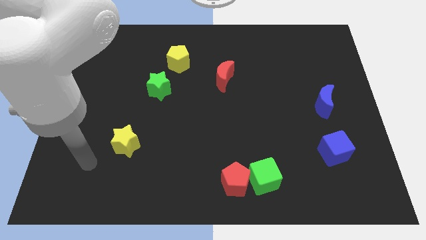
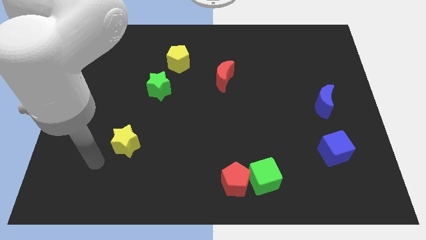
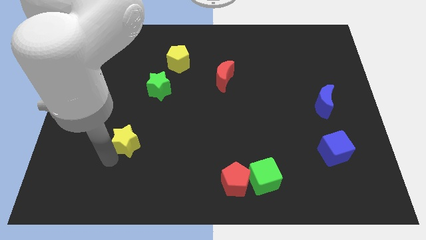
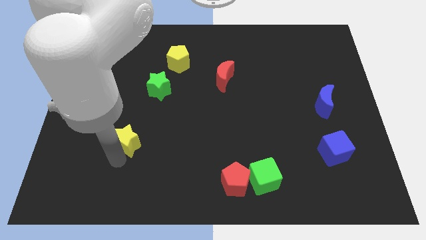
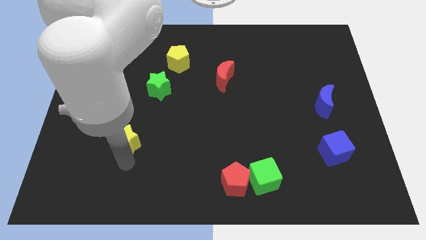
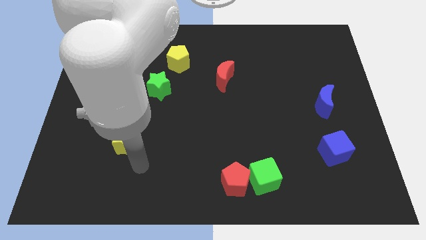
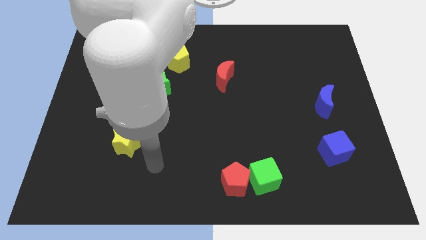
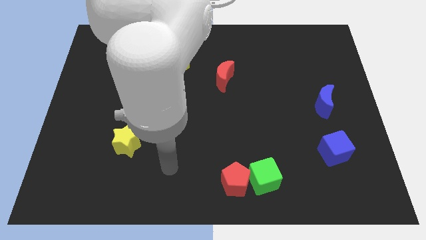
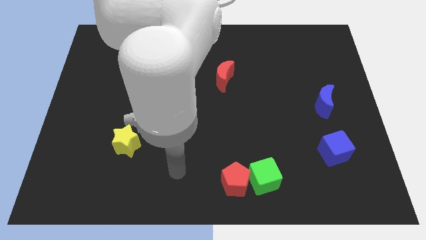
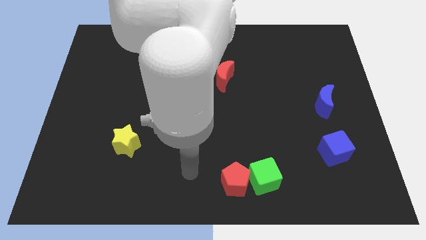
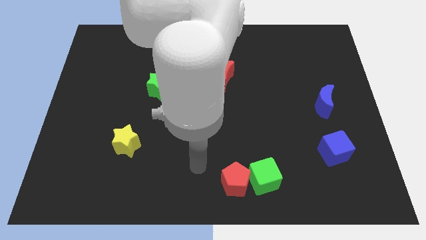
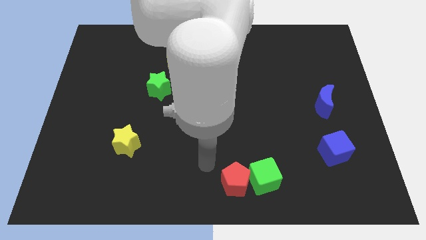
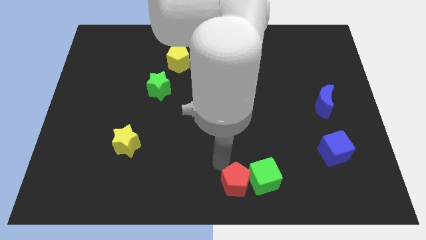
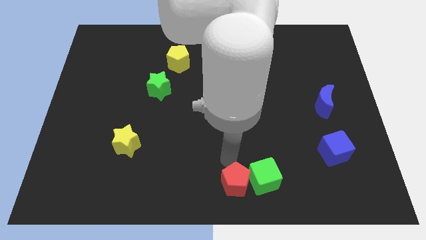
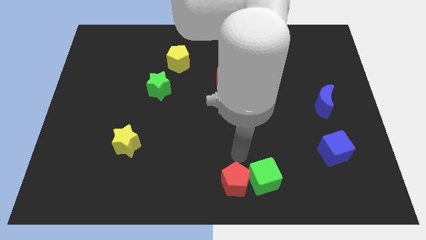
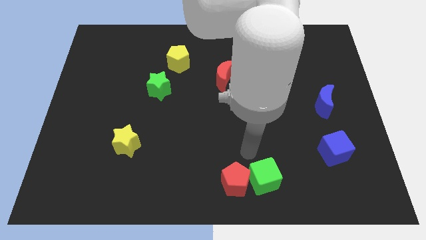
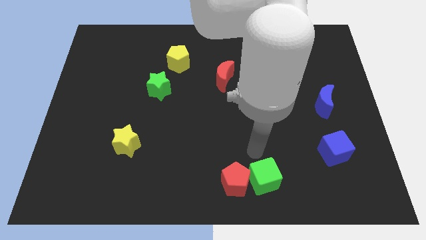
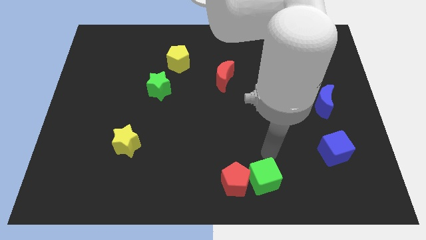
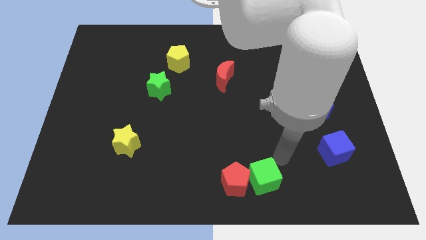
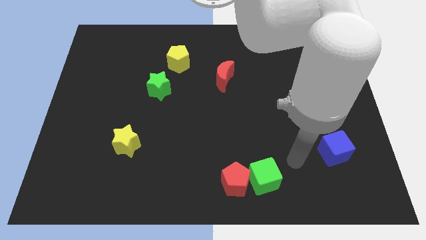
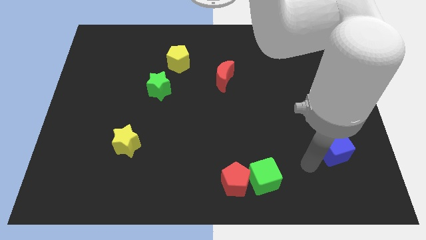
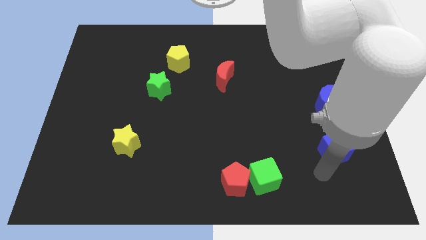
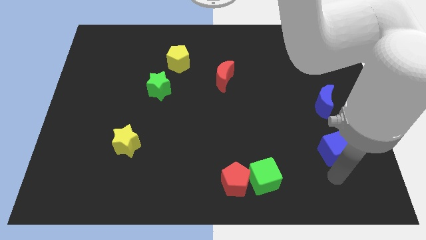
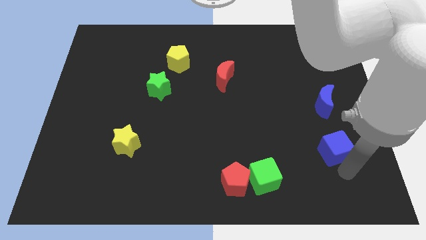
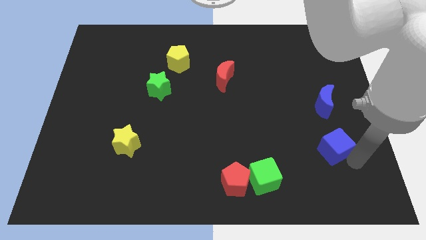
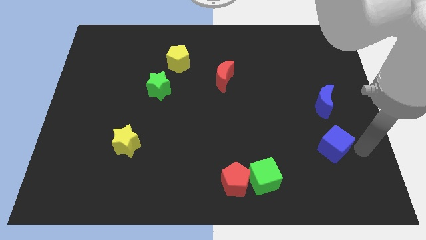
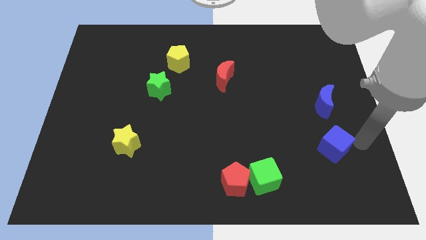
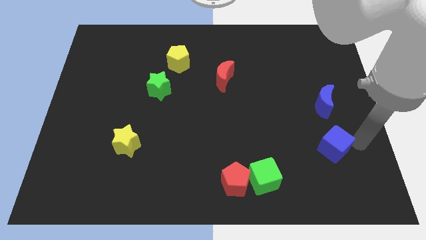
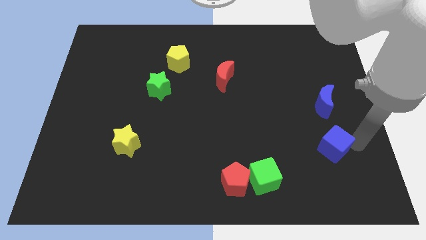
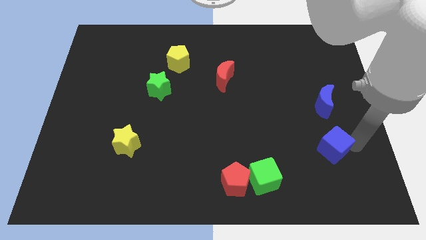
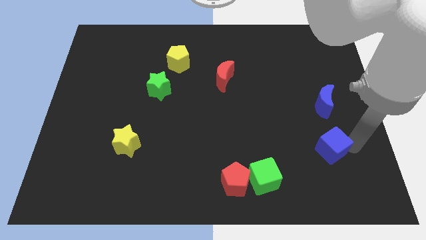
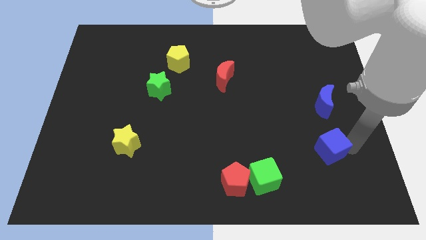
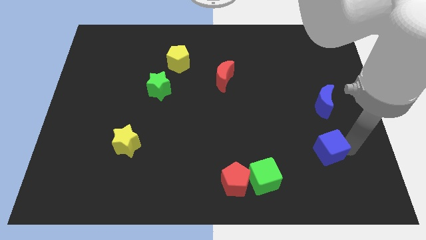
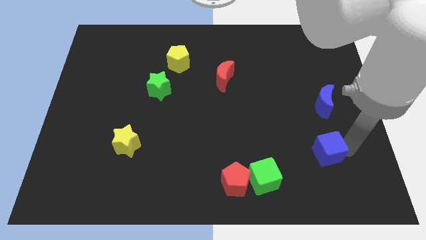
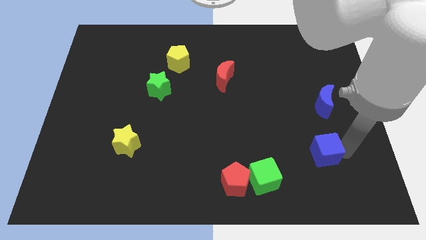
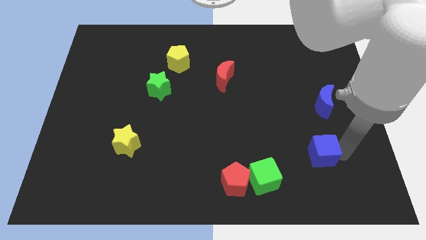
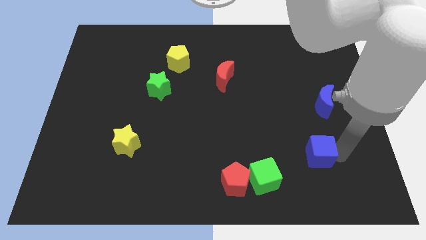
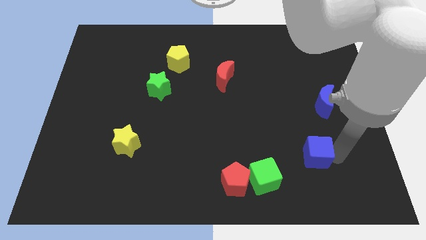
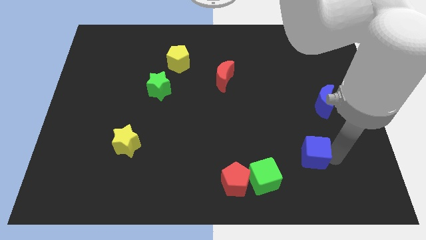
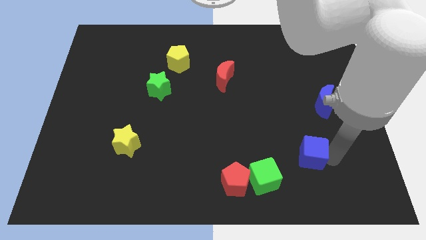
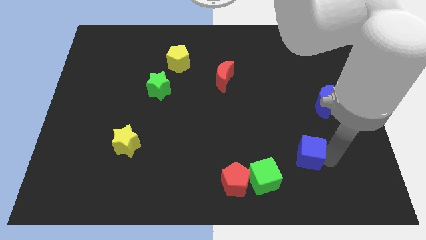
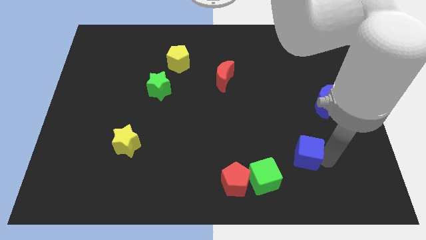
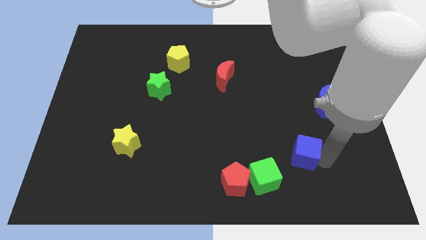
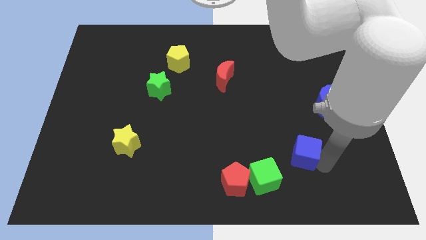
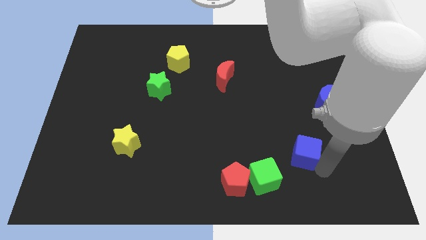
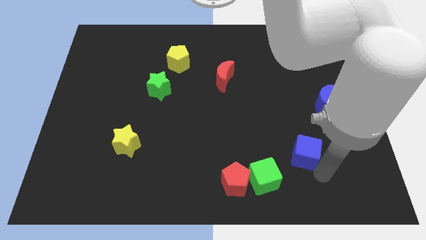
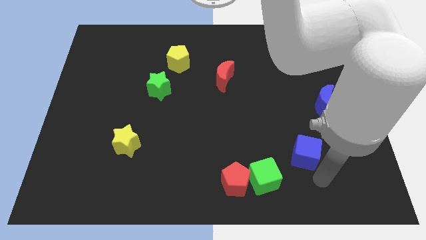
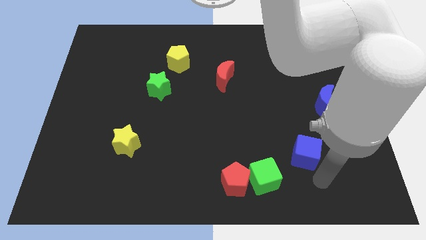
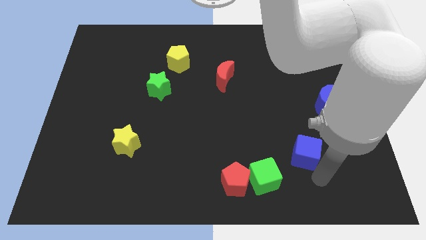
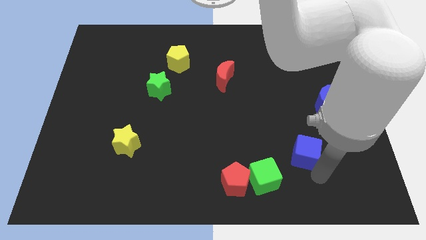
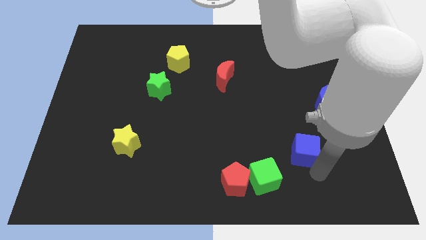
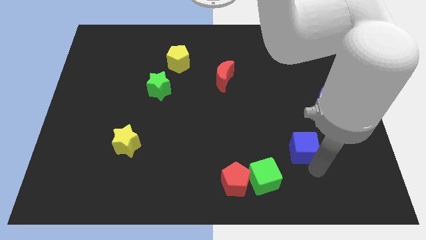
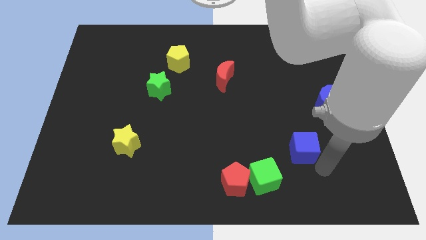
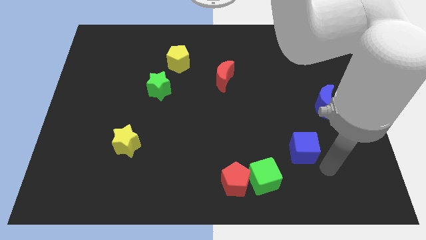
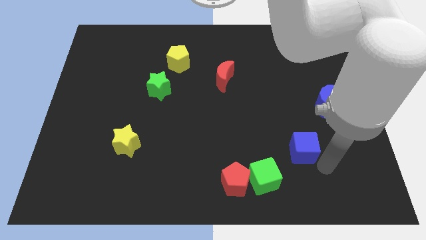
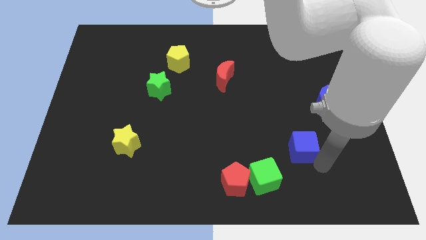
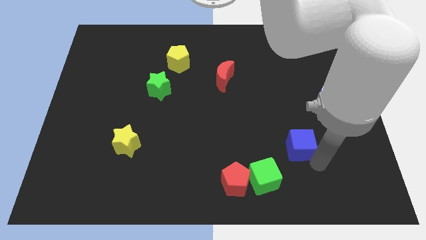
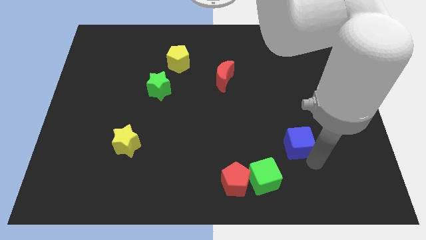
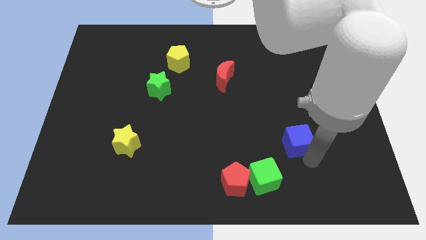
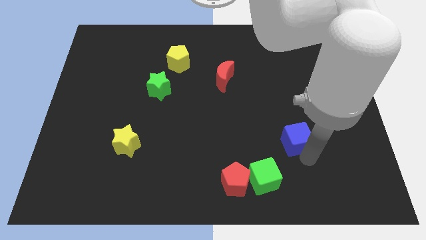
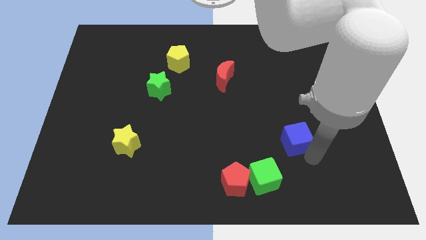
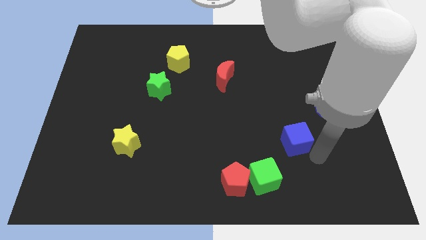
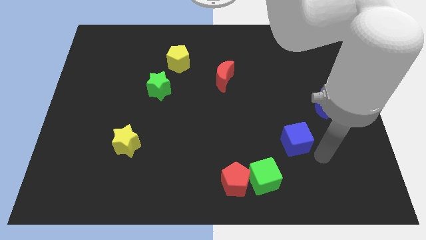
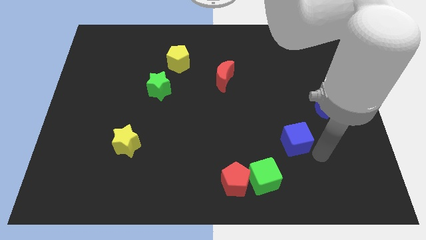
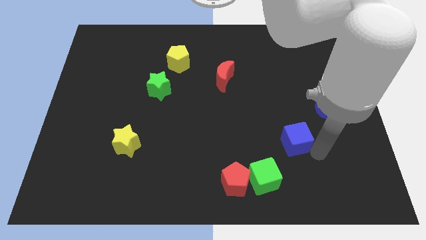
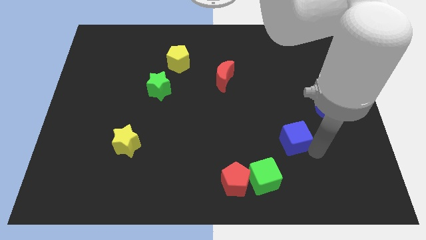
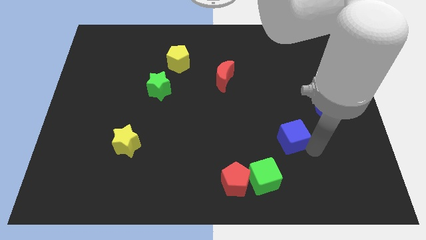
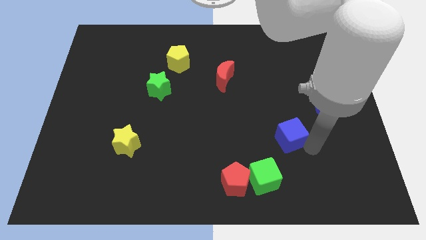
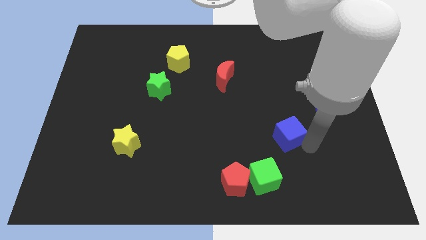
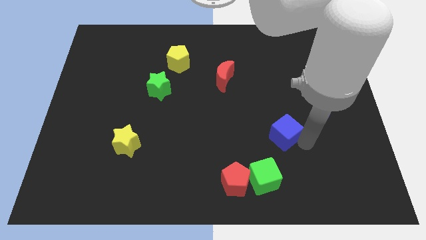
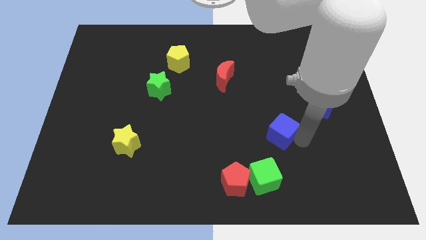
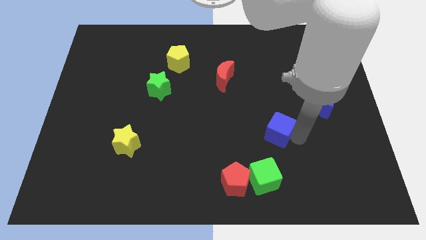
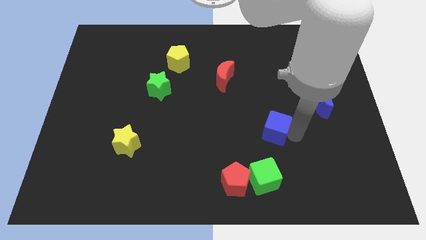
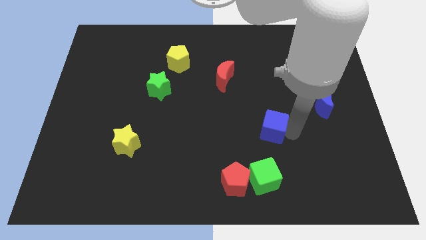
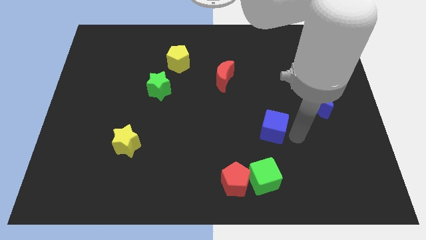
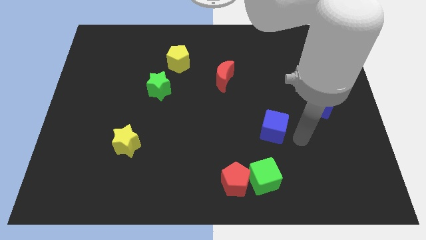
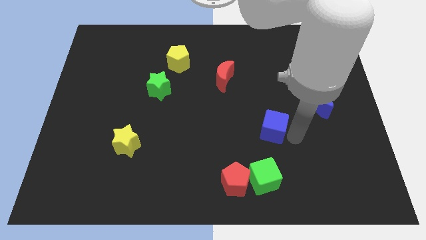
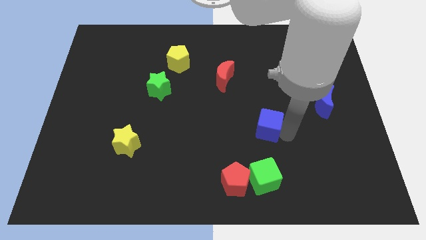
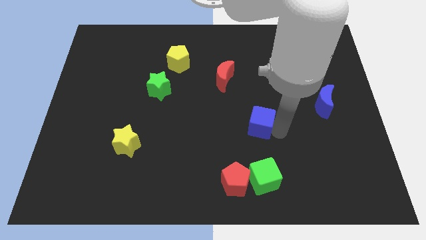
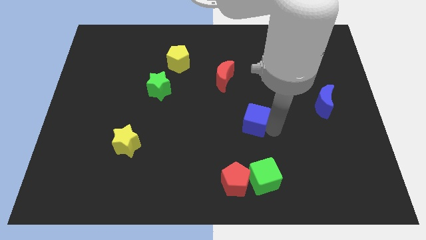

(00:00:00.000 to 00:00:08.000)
slide the blue cube to the middle
